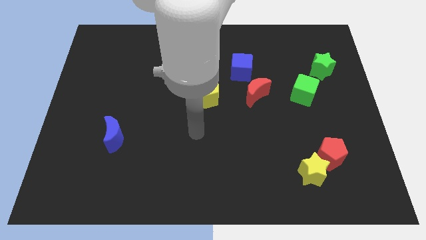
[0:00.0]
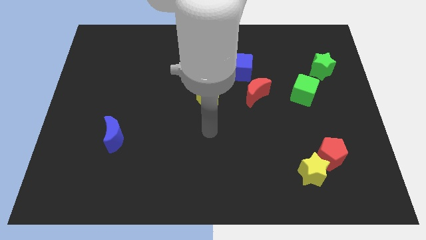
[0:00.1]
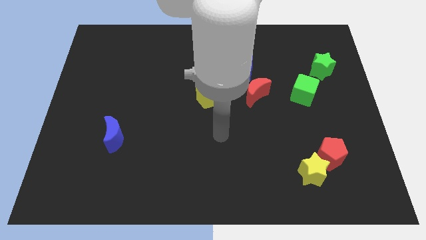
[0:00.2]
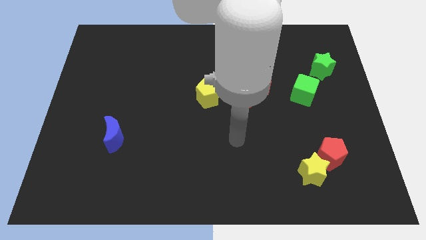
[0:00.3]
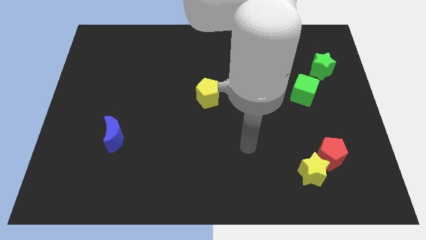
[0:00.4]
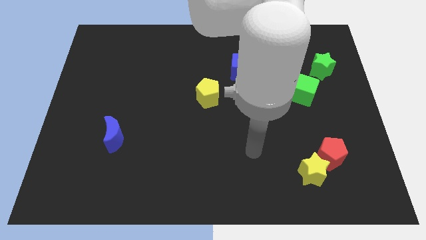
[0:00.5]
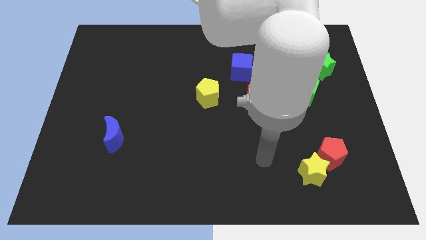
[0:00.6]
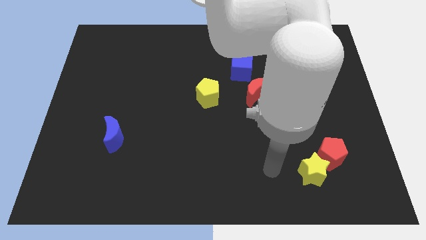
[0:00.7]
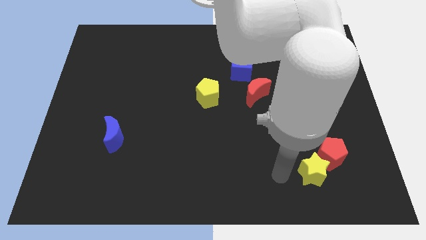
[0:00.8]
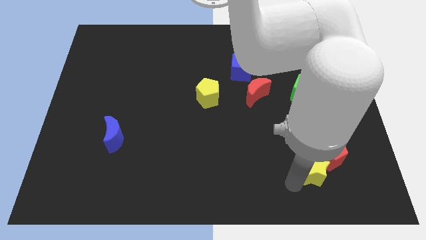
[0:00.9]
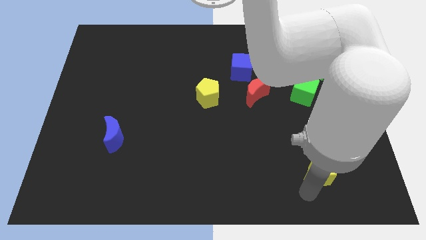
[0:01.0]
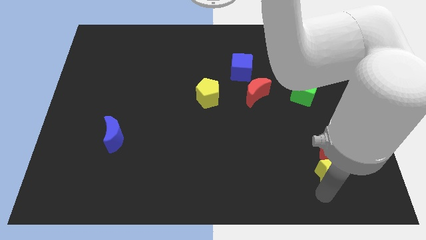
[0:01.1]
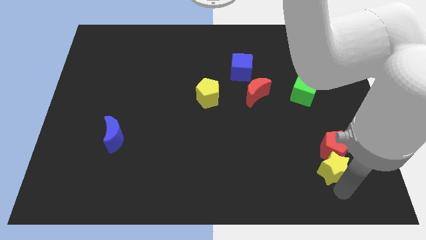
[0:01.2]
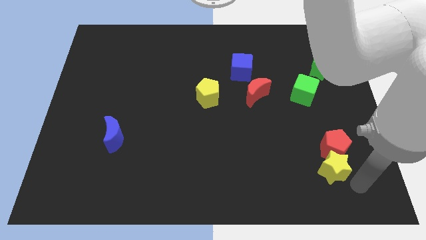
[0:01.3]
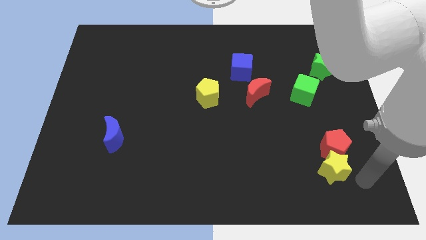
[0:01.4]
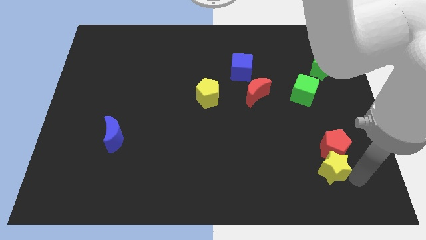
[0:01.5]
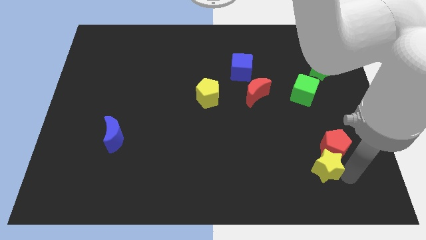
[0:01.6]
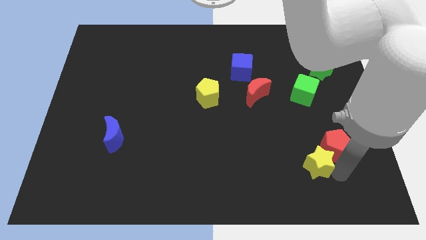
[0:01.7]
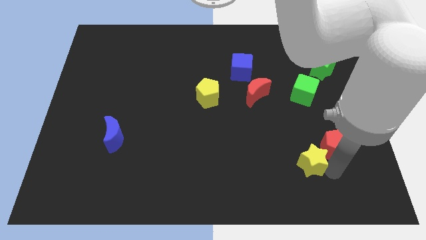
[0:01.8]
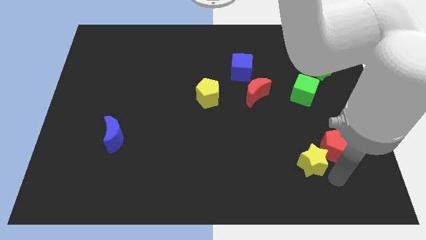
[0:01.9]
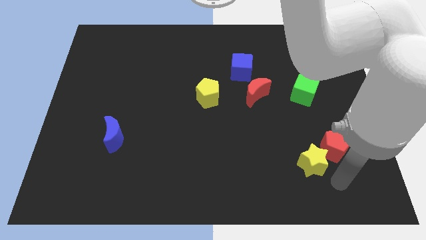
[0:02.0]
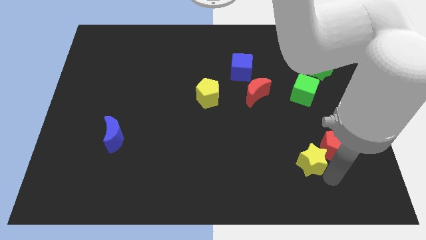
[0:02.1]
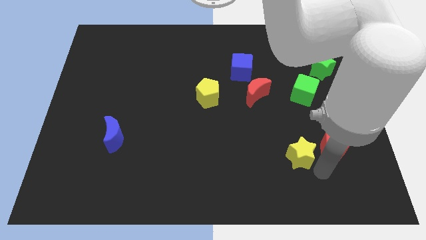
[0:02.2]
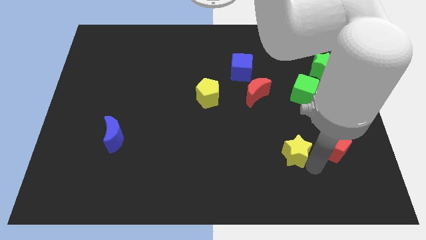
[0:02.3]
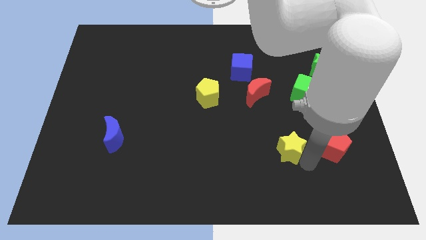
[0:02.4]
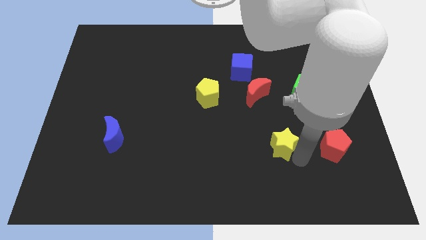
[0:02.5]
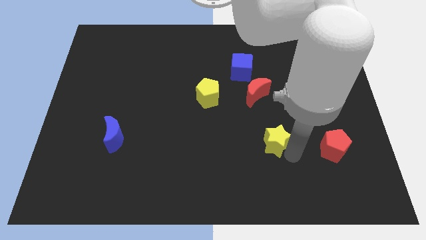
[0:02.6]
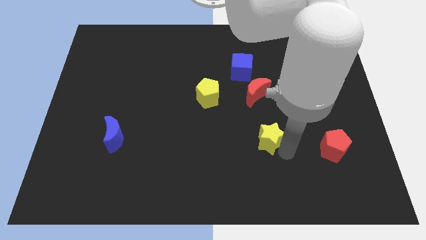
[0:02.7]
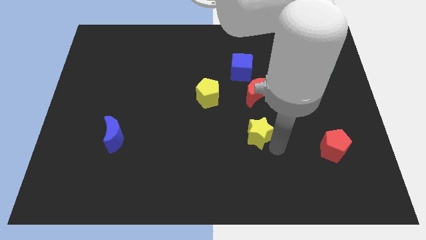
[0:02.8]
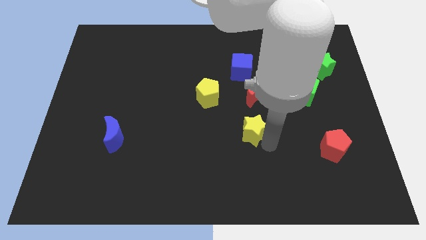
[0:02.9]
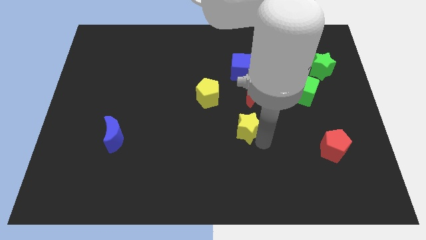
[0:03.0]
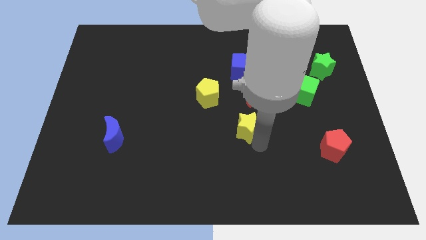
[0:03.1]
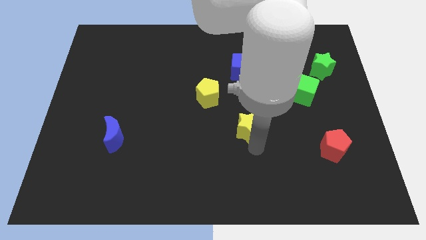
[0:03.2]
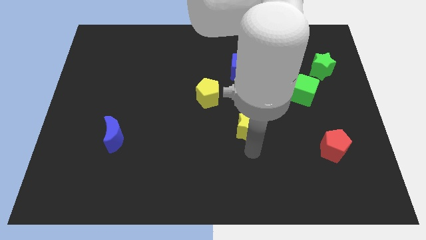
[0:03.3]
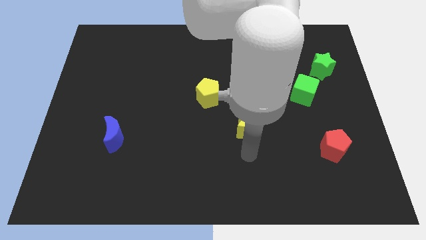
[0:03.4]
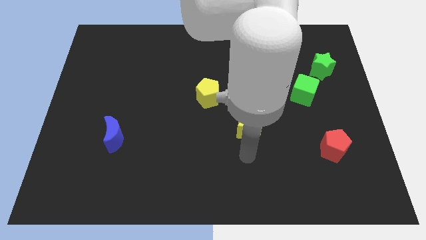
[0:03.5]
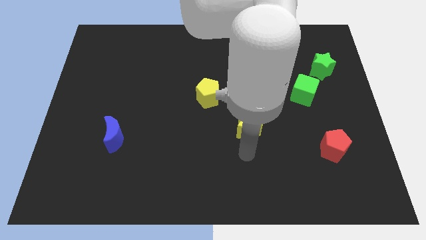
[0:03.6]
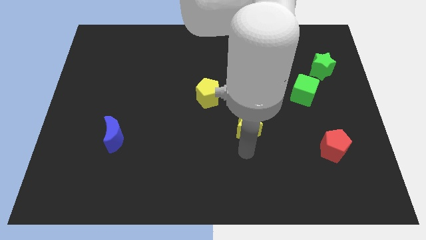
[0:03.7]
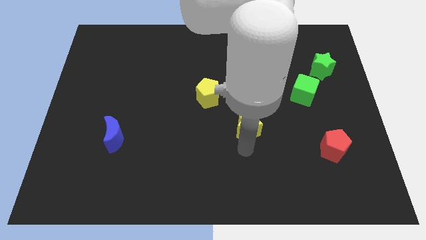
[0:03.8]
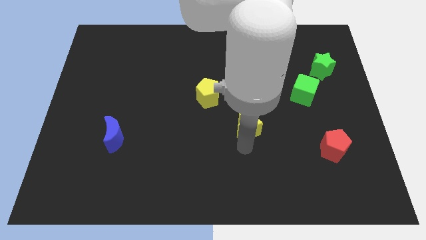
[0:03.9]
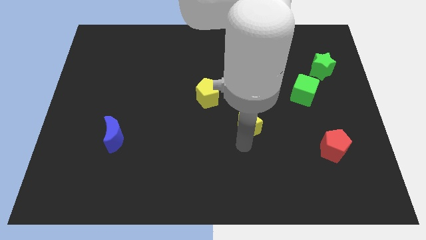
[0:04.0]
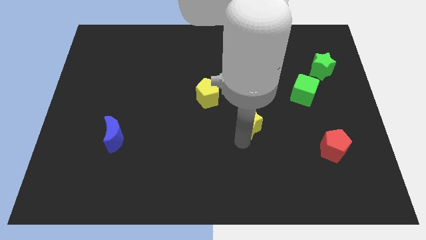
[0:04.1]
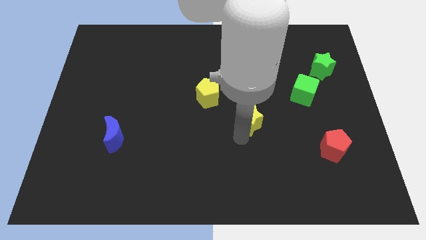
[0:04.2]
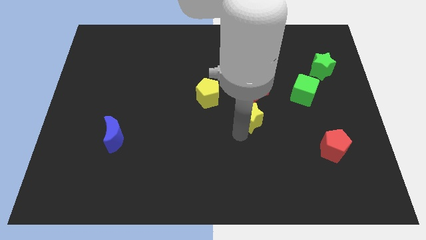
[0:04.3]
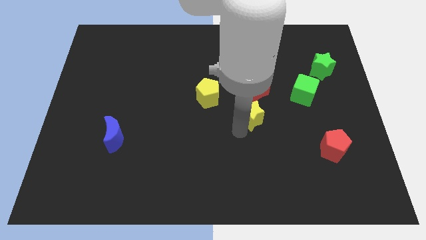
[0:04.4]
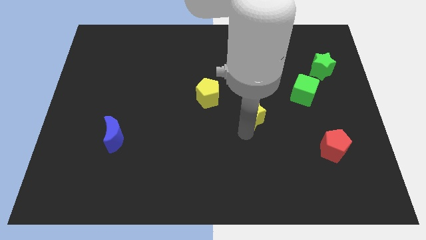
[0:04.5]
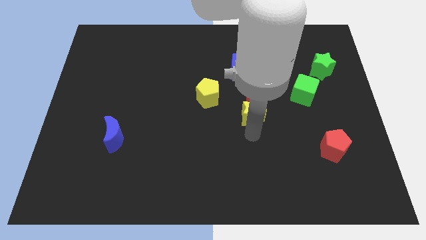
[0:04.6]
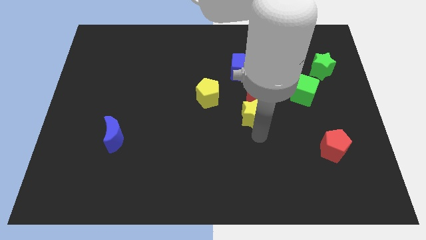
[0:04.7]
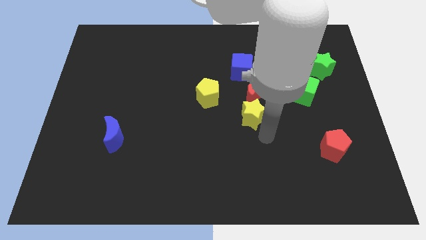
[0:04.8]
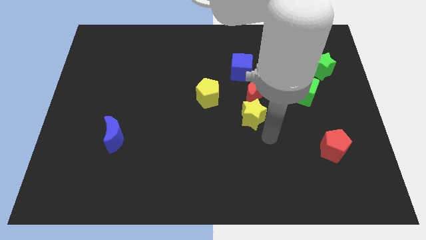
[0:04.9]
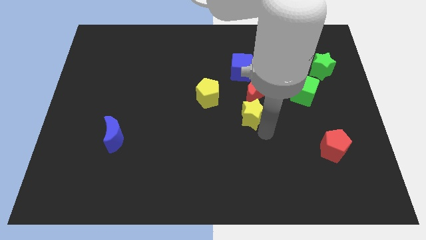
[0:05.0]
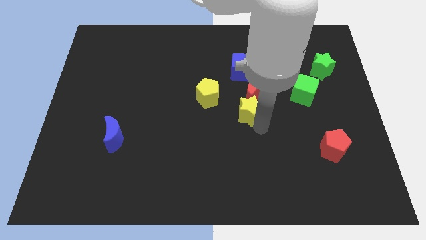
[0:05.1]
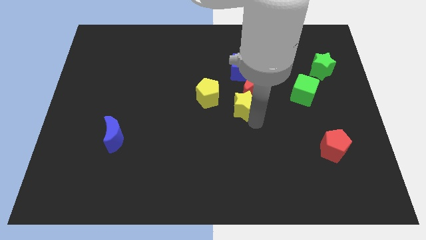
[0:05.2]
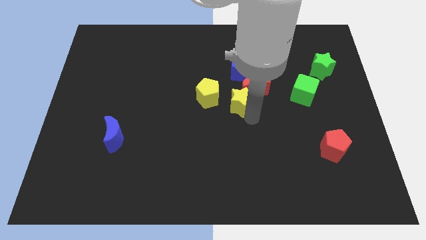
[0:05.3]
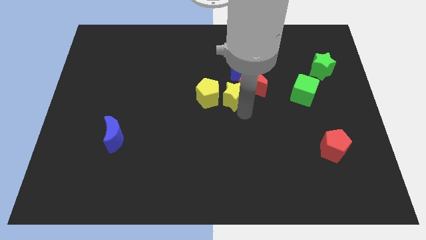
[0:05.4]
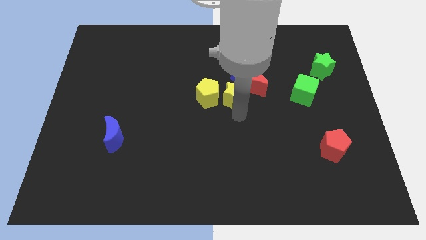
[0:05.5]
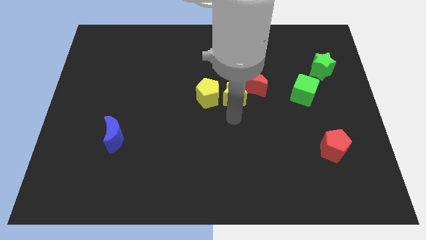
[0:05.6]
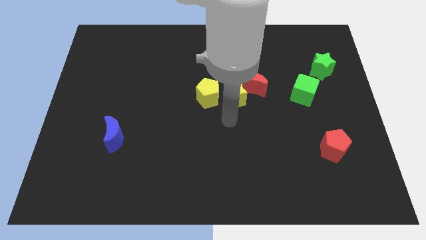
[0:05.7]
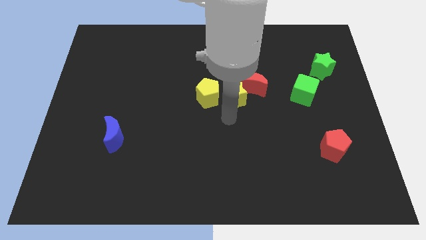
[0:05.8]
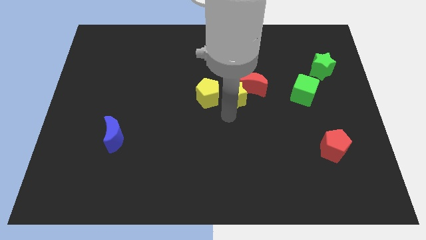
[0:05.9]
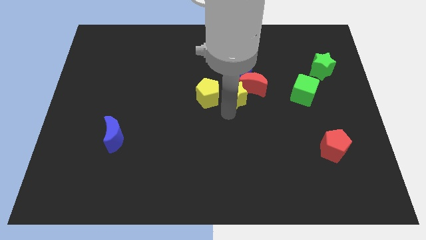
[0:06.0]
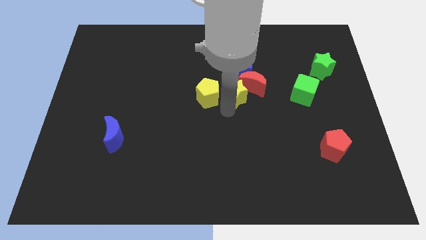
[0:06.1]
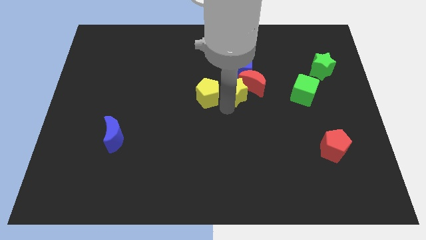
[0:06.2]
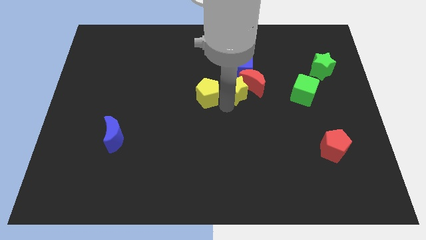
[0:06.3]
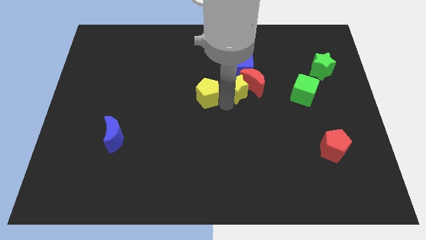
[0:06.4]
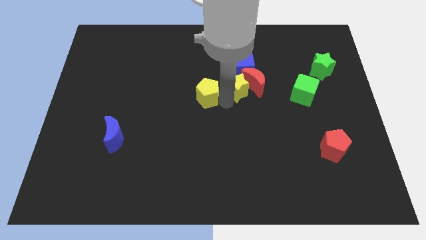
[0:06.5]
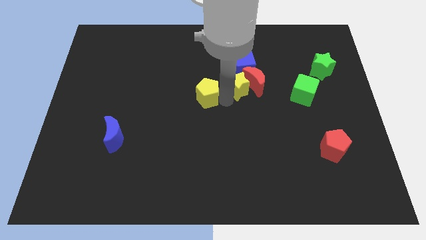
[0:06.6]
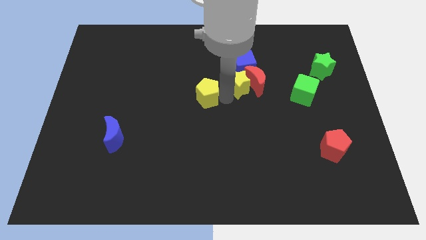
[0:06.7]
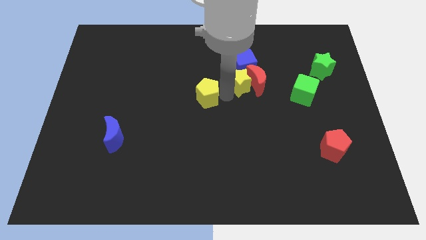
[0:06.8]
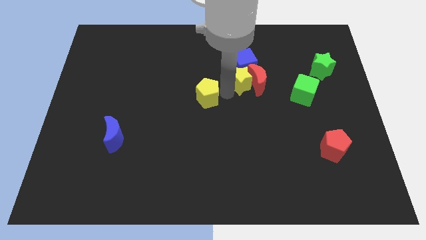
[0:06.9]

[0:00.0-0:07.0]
push the yellow star next to the blue cube

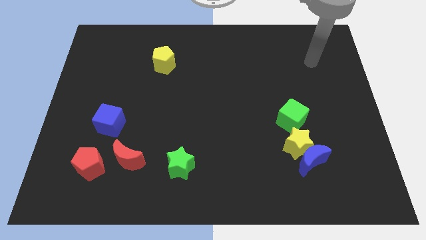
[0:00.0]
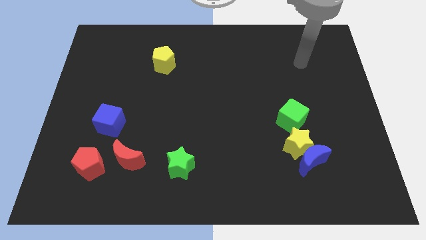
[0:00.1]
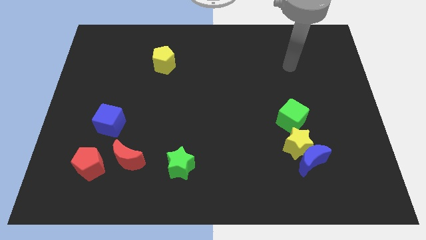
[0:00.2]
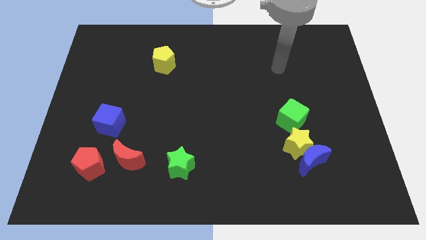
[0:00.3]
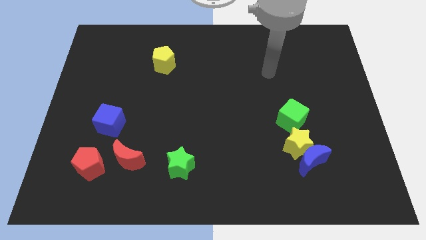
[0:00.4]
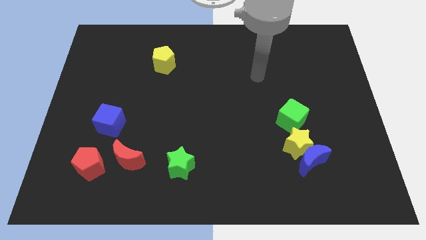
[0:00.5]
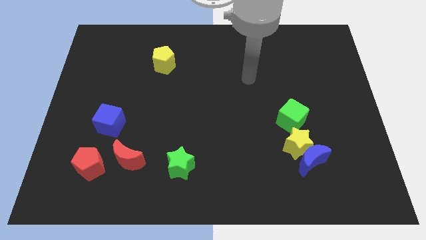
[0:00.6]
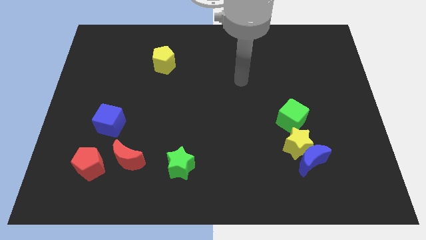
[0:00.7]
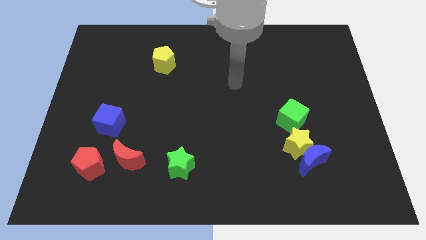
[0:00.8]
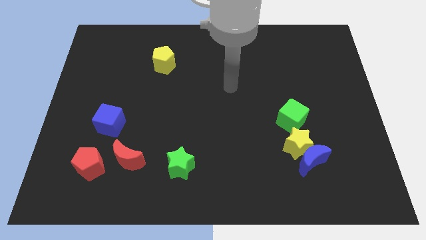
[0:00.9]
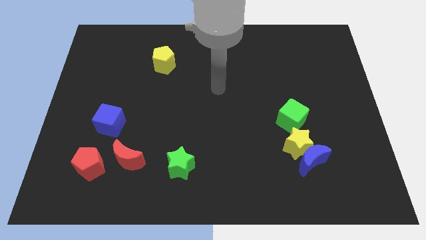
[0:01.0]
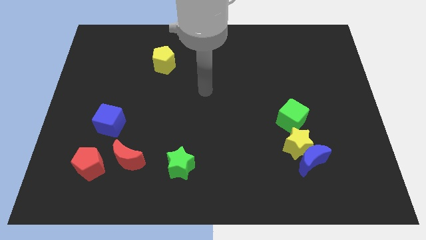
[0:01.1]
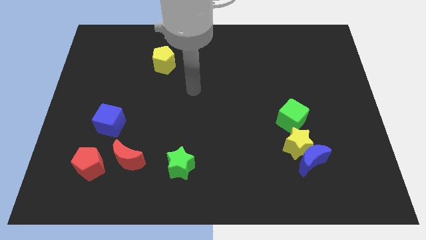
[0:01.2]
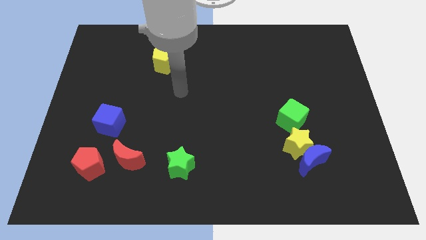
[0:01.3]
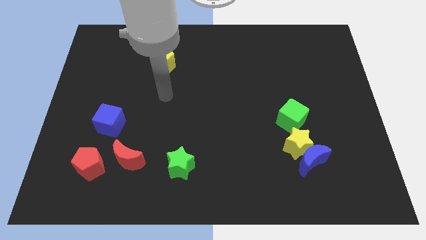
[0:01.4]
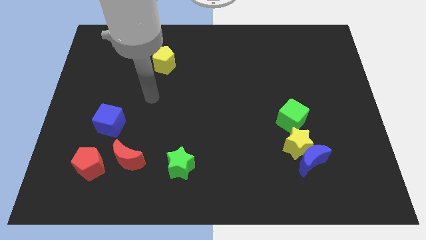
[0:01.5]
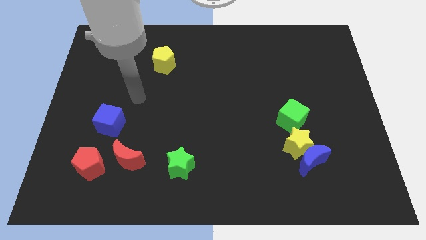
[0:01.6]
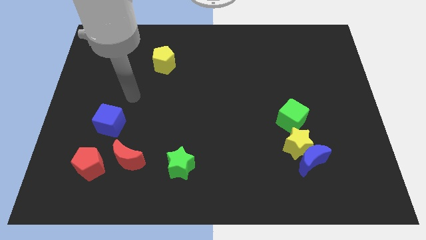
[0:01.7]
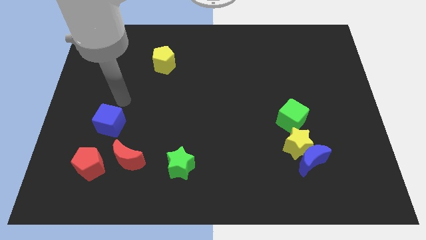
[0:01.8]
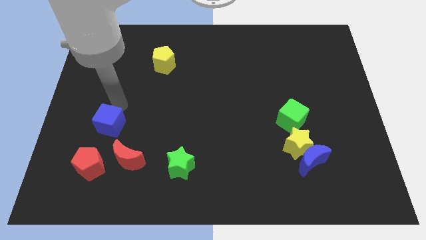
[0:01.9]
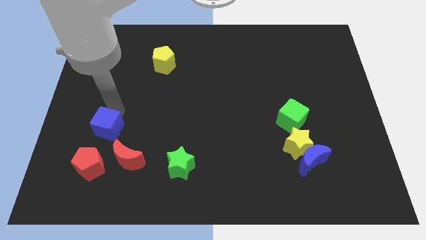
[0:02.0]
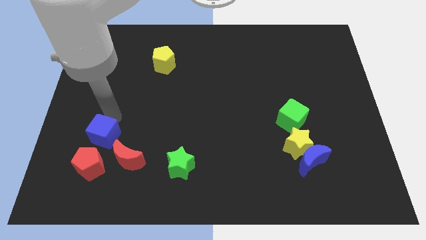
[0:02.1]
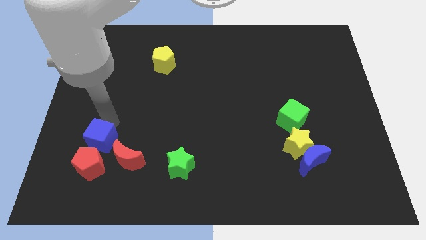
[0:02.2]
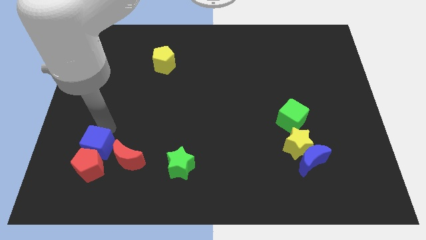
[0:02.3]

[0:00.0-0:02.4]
slide the blue cube next to the red pentagon
